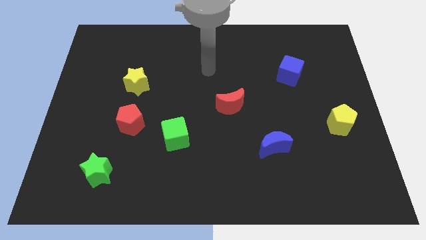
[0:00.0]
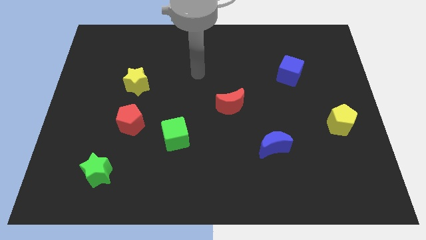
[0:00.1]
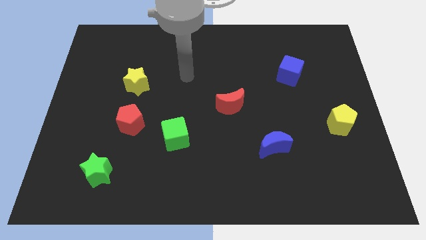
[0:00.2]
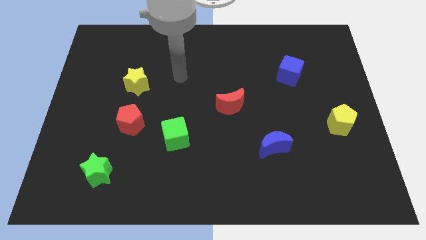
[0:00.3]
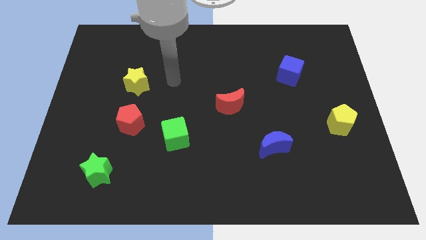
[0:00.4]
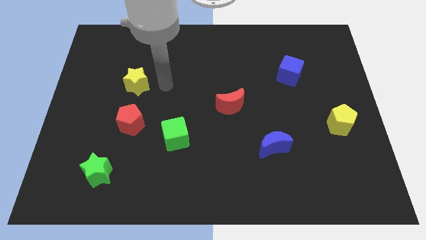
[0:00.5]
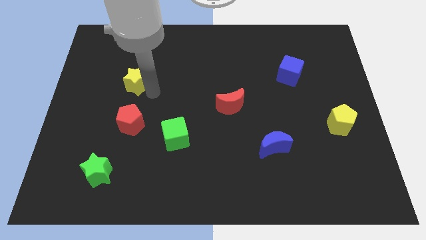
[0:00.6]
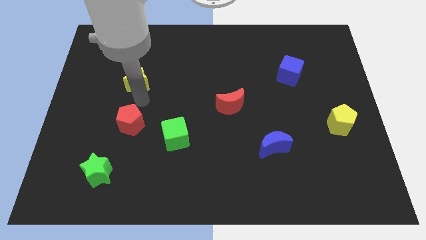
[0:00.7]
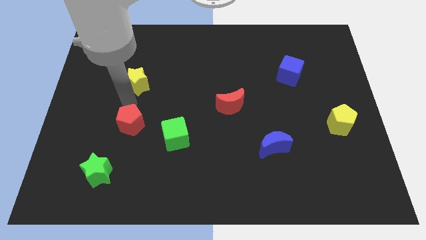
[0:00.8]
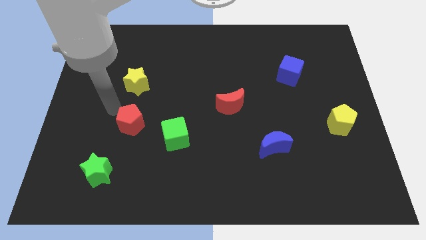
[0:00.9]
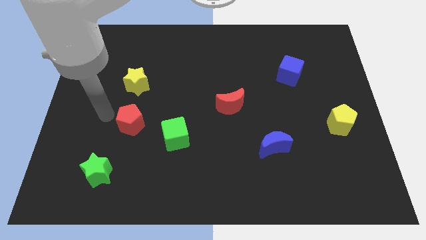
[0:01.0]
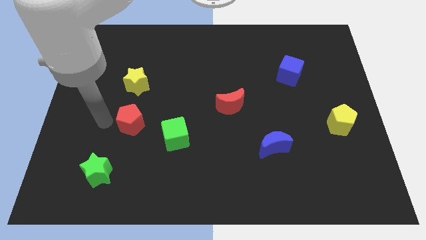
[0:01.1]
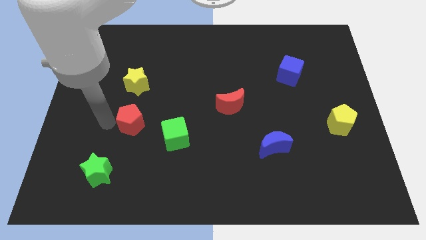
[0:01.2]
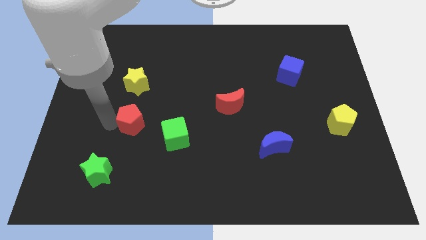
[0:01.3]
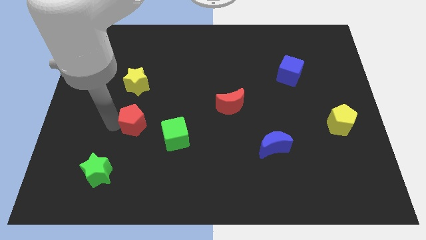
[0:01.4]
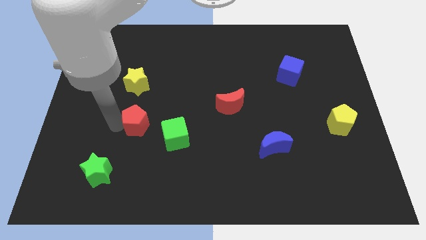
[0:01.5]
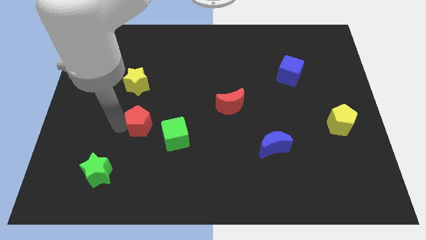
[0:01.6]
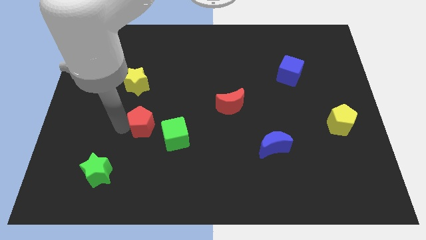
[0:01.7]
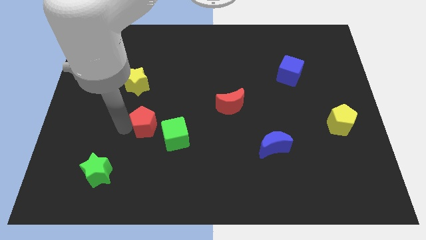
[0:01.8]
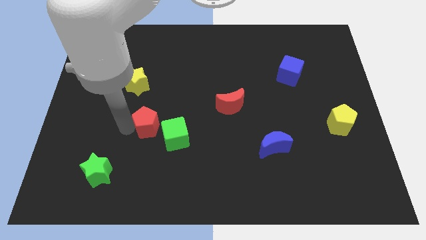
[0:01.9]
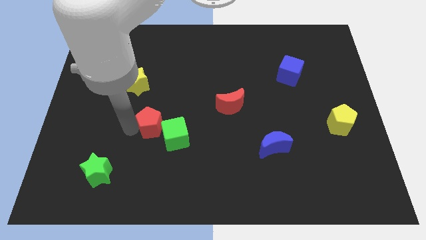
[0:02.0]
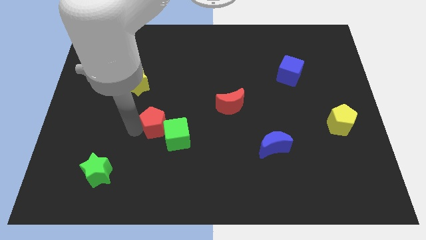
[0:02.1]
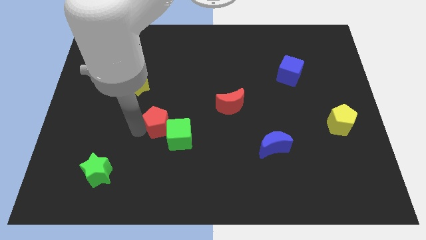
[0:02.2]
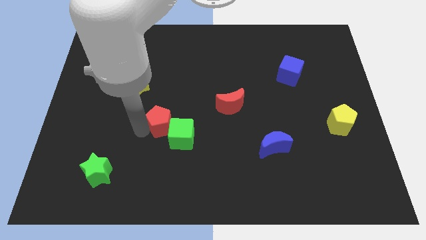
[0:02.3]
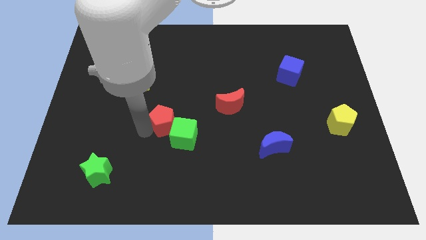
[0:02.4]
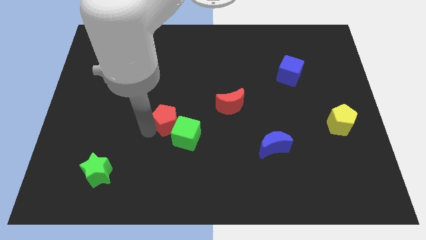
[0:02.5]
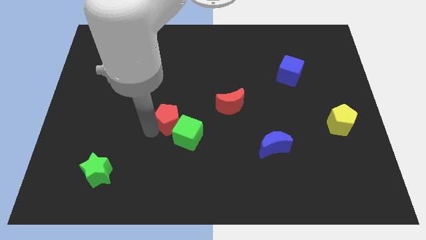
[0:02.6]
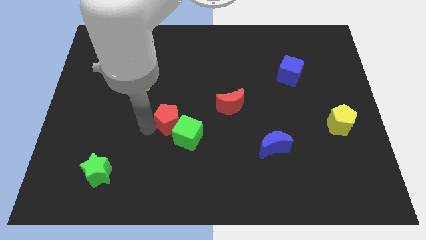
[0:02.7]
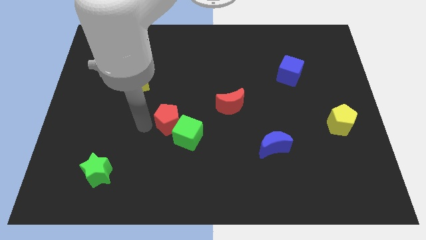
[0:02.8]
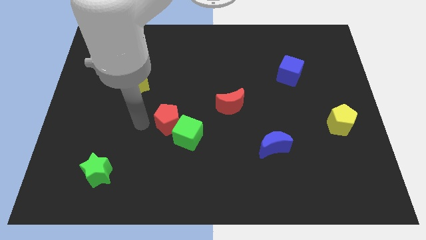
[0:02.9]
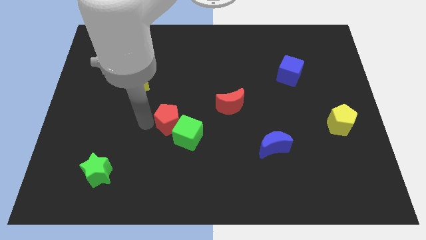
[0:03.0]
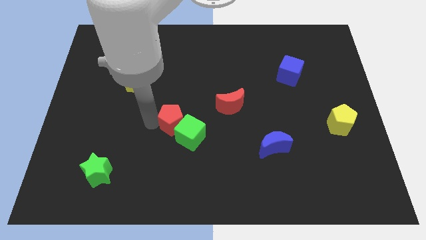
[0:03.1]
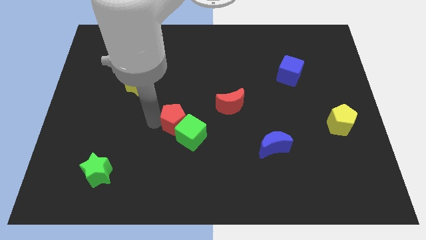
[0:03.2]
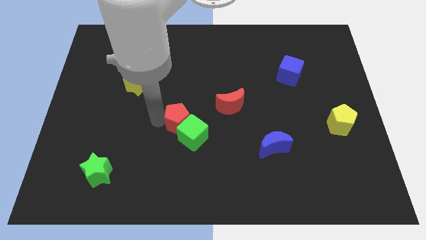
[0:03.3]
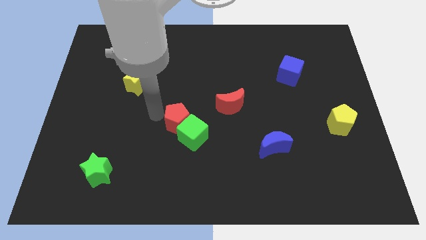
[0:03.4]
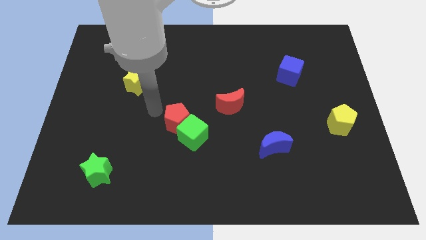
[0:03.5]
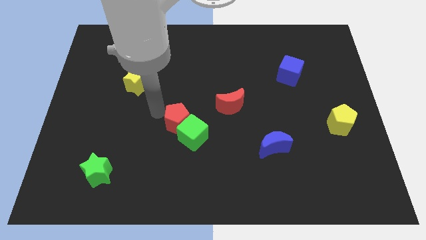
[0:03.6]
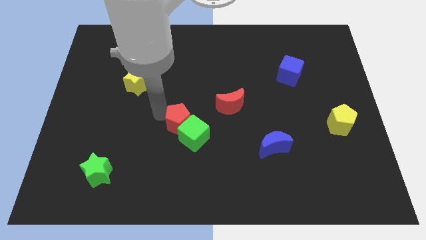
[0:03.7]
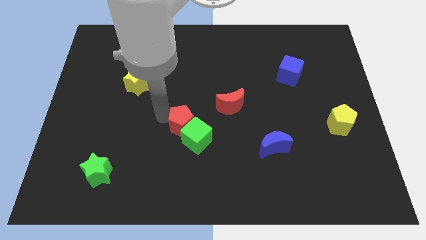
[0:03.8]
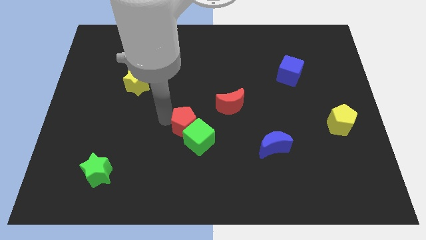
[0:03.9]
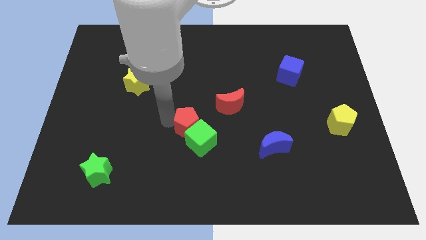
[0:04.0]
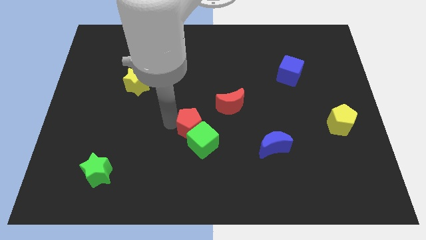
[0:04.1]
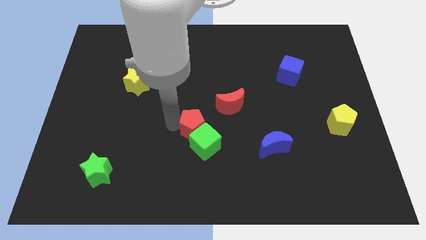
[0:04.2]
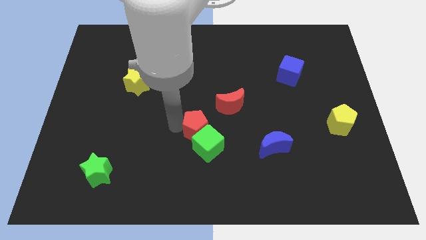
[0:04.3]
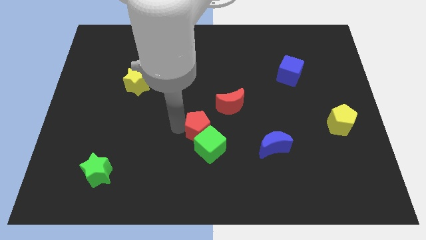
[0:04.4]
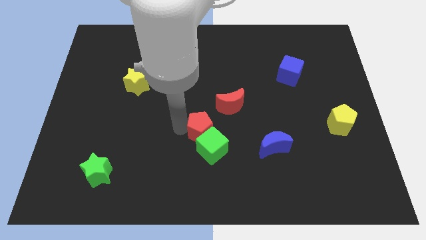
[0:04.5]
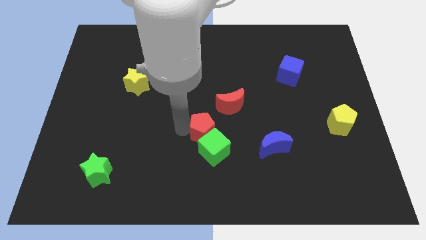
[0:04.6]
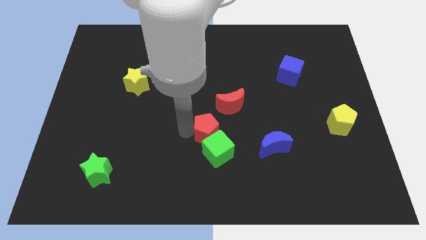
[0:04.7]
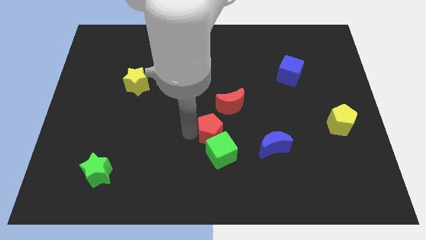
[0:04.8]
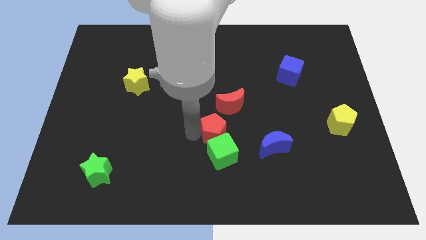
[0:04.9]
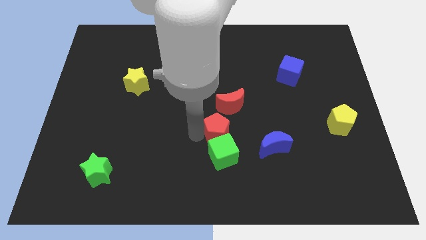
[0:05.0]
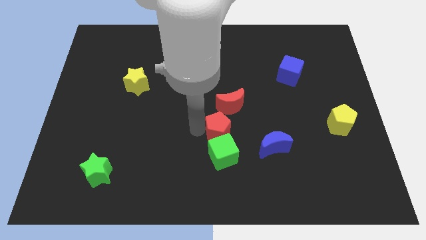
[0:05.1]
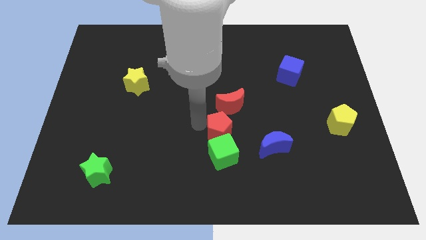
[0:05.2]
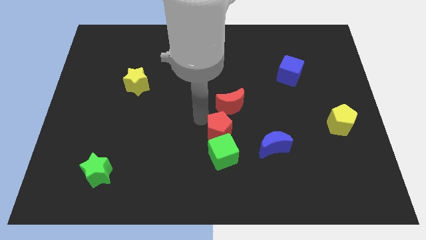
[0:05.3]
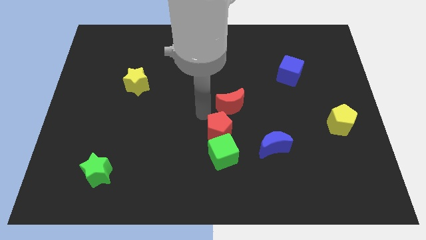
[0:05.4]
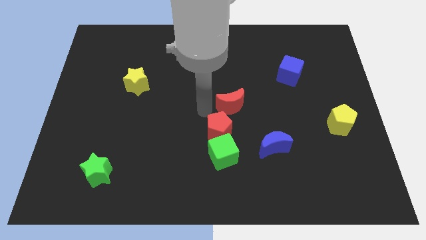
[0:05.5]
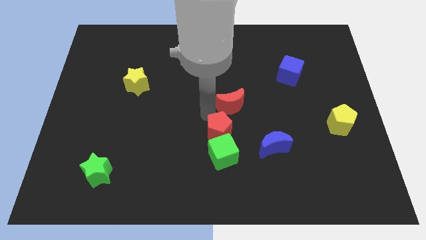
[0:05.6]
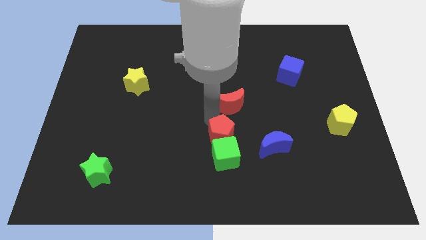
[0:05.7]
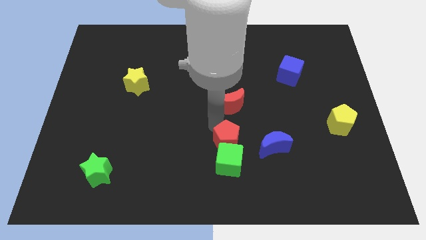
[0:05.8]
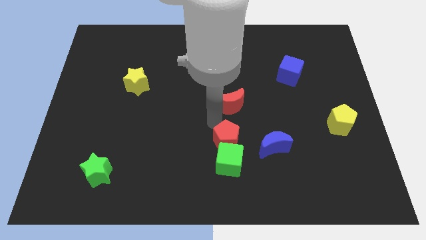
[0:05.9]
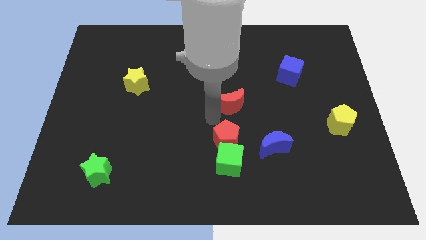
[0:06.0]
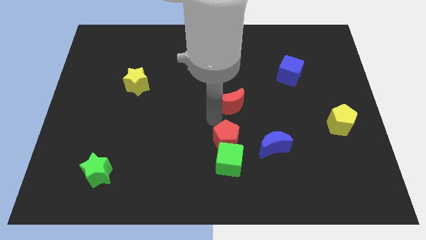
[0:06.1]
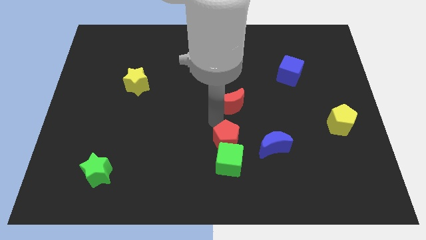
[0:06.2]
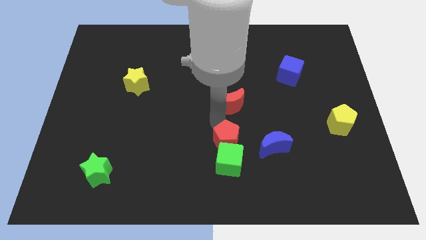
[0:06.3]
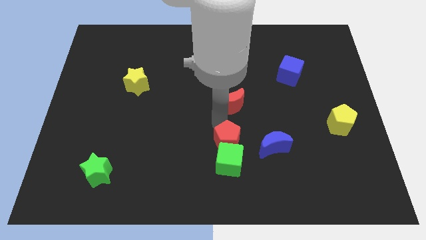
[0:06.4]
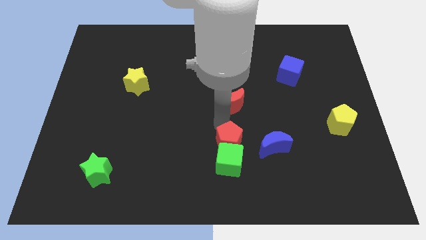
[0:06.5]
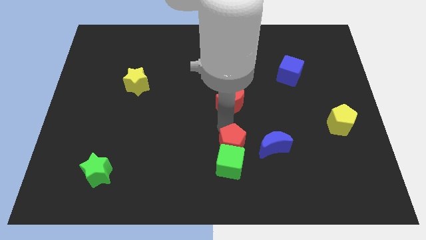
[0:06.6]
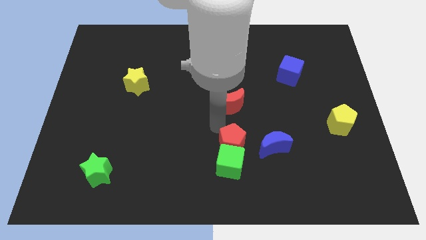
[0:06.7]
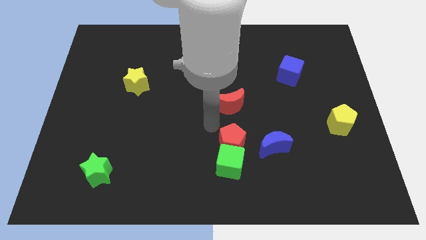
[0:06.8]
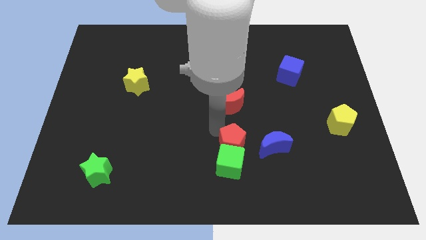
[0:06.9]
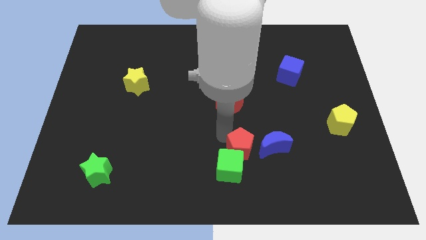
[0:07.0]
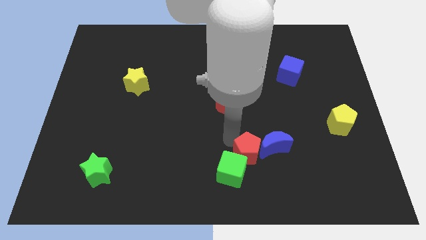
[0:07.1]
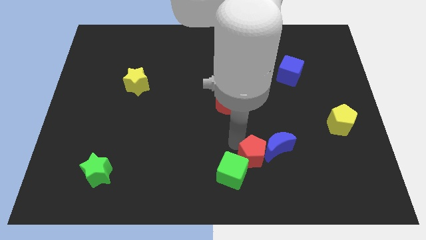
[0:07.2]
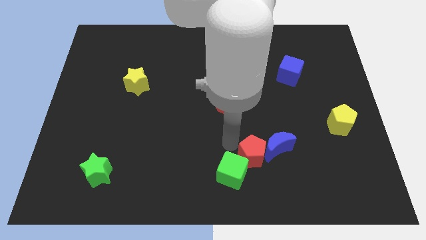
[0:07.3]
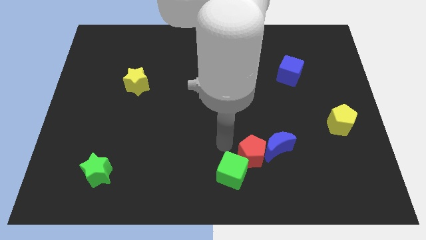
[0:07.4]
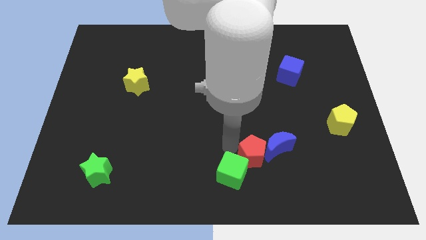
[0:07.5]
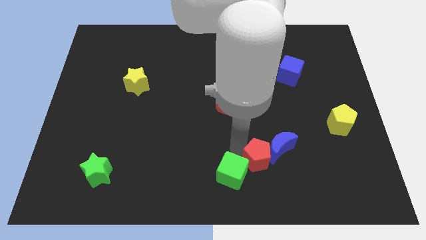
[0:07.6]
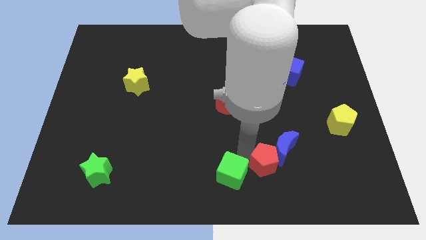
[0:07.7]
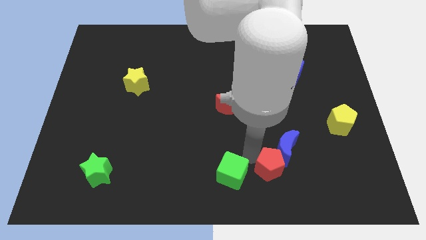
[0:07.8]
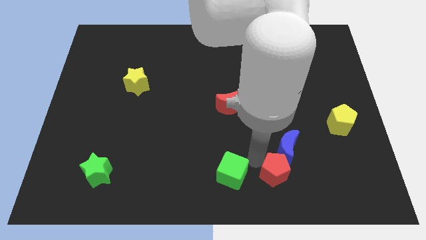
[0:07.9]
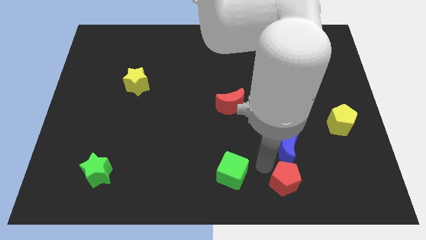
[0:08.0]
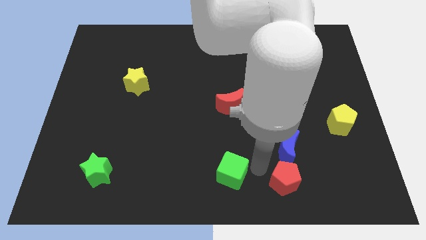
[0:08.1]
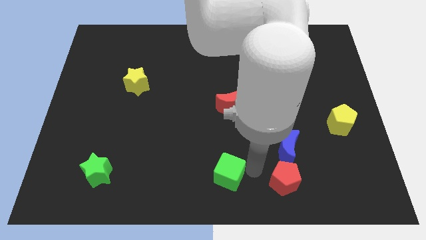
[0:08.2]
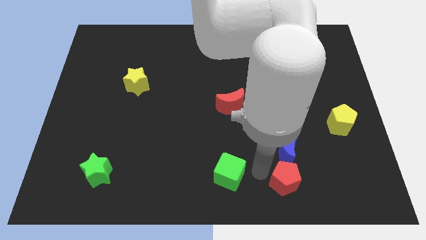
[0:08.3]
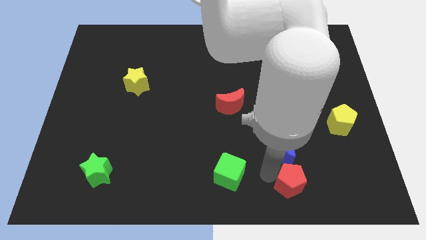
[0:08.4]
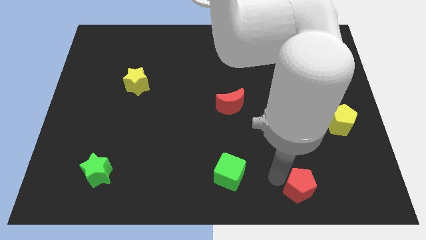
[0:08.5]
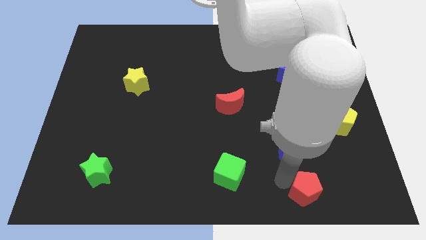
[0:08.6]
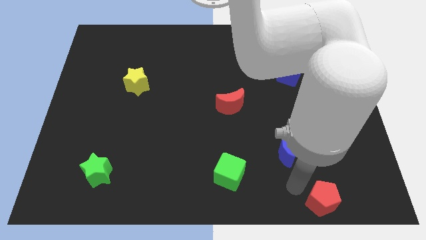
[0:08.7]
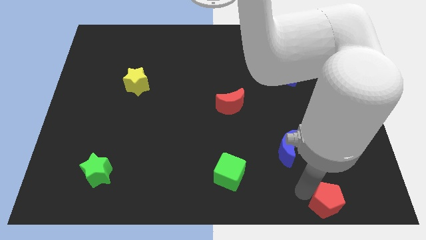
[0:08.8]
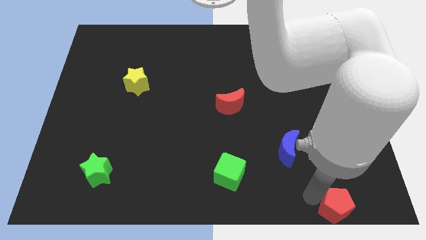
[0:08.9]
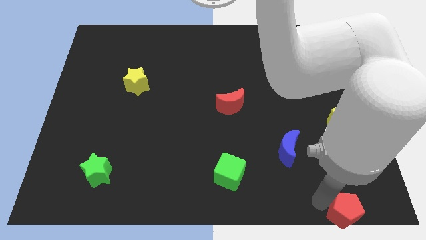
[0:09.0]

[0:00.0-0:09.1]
put the red pentagon to the bottom right corner
